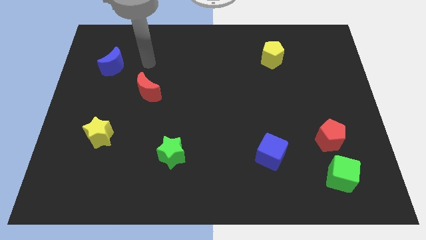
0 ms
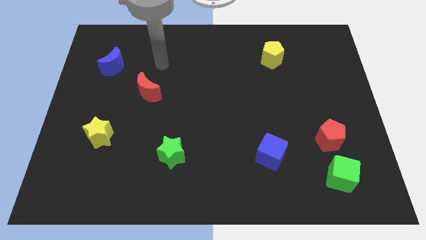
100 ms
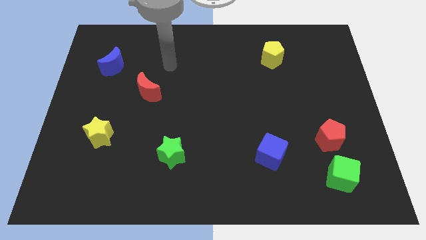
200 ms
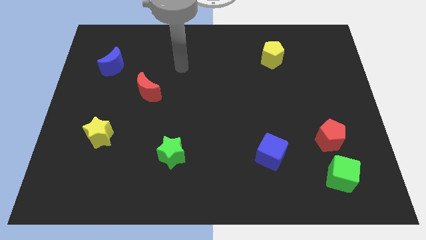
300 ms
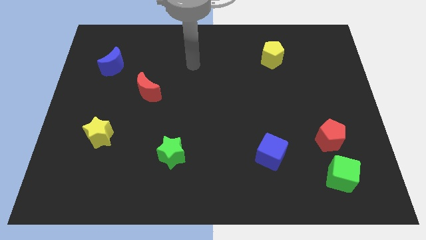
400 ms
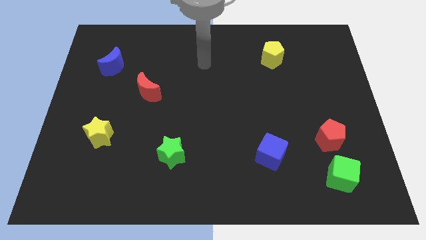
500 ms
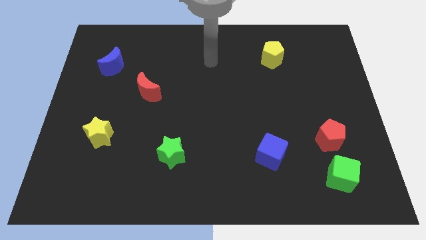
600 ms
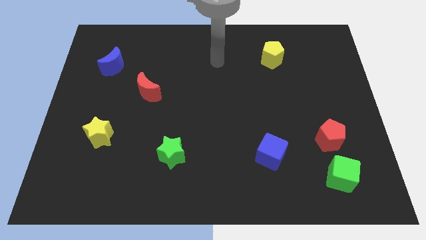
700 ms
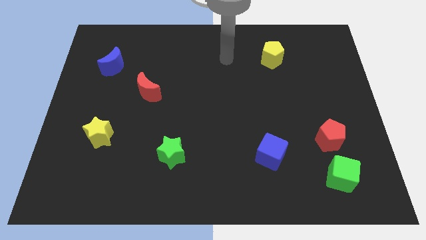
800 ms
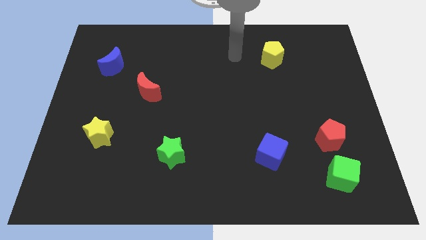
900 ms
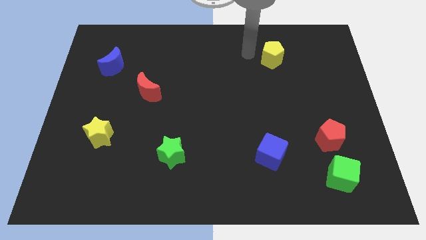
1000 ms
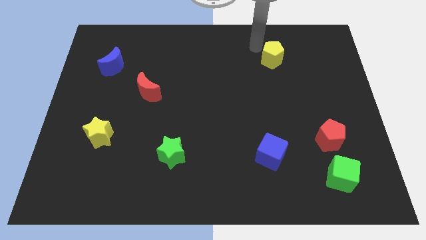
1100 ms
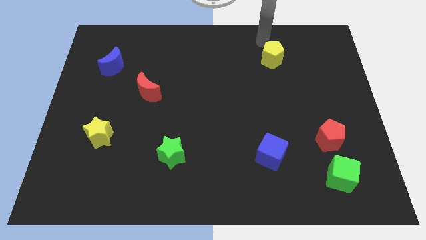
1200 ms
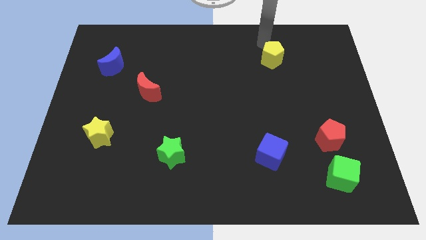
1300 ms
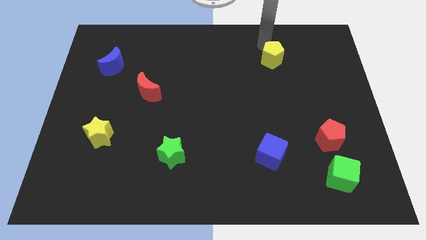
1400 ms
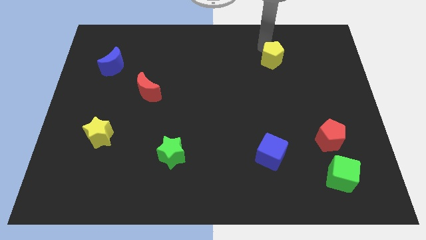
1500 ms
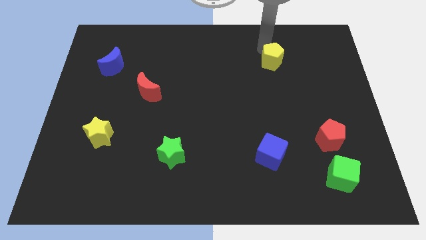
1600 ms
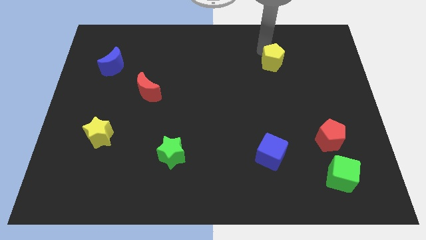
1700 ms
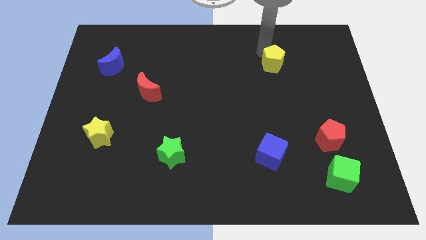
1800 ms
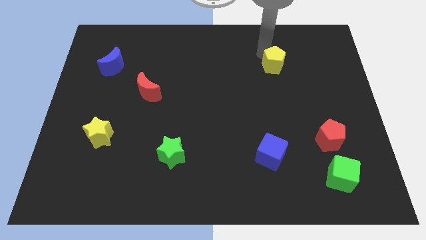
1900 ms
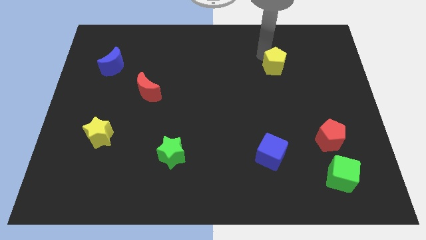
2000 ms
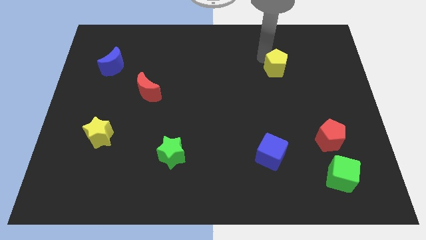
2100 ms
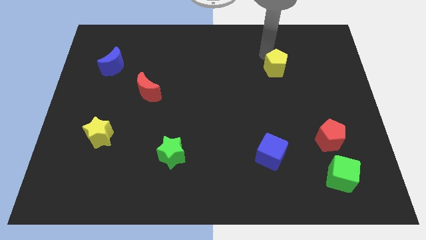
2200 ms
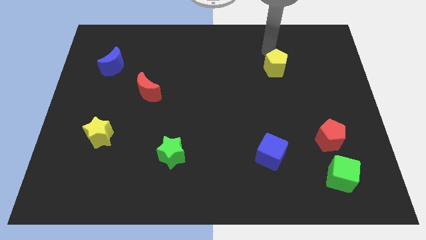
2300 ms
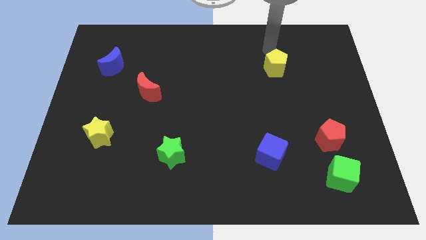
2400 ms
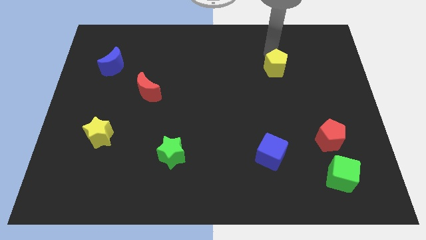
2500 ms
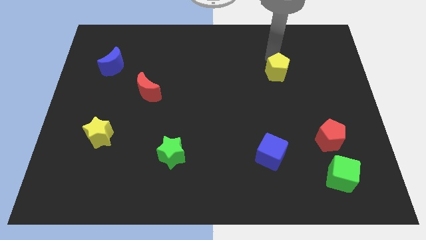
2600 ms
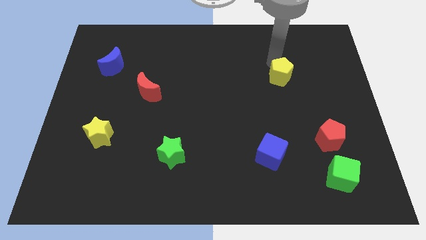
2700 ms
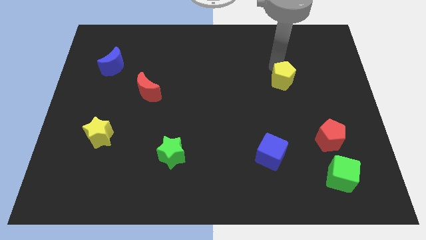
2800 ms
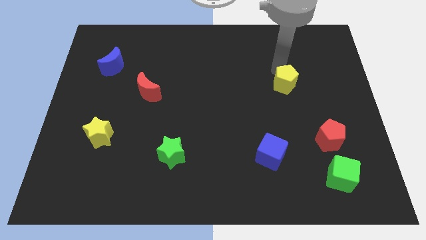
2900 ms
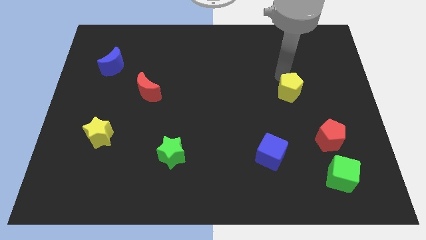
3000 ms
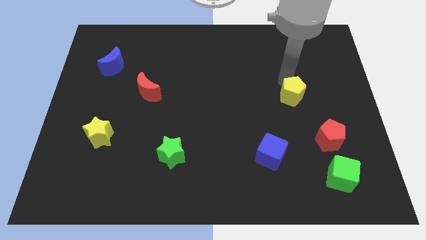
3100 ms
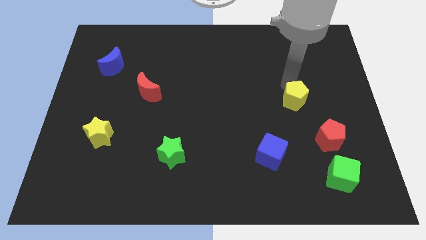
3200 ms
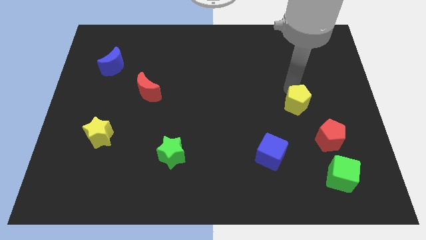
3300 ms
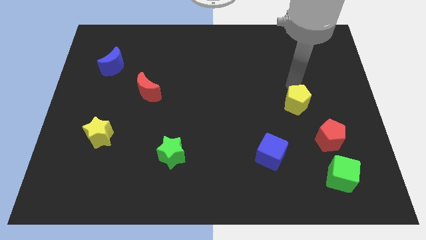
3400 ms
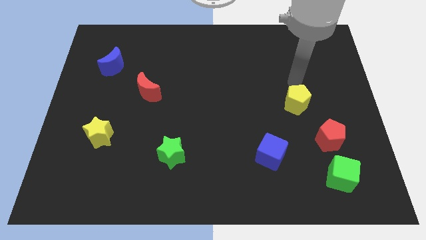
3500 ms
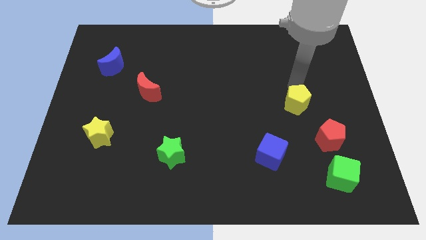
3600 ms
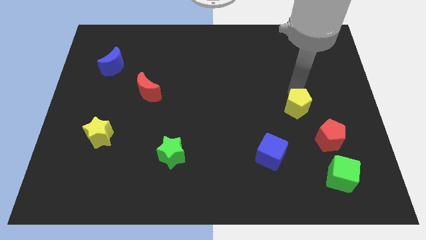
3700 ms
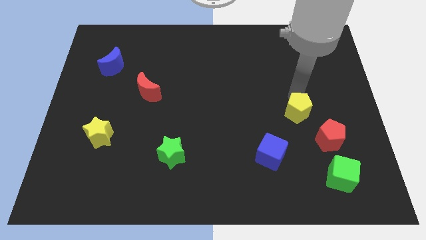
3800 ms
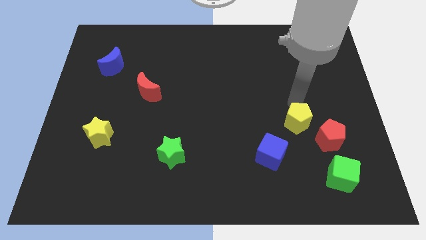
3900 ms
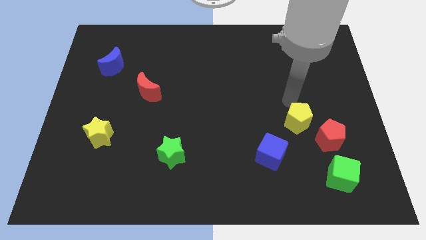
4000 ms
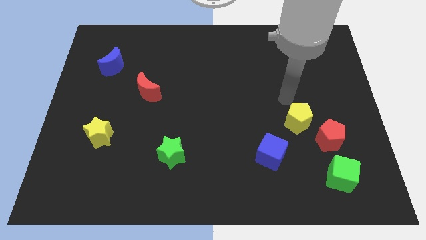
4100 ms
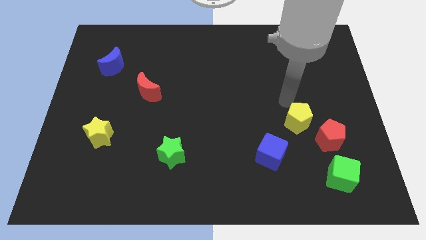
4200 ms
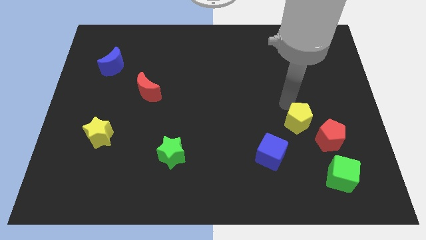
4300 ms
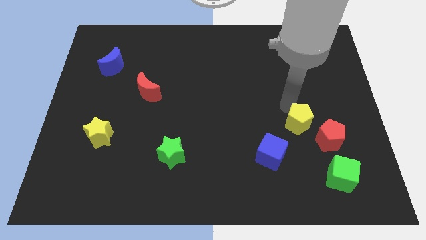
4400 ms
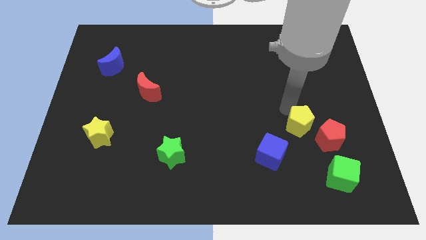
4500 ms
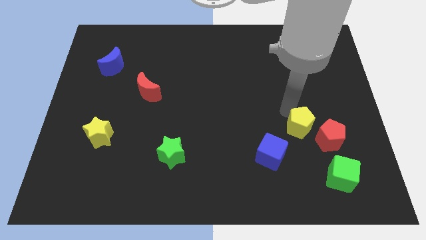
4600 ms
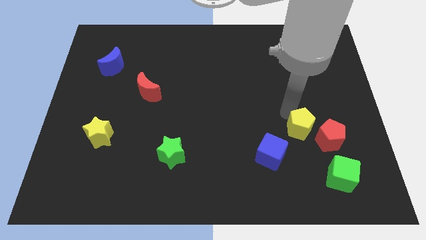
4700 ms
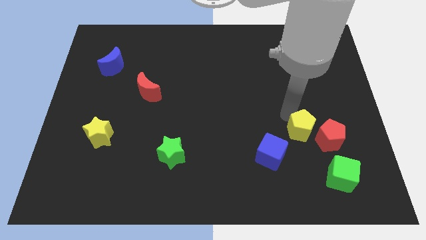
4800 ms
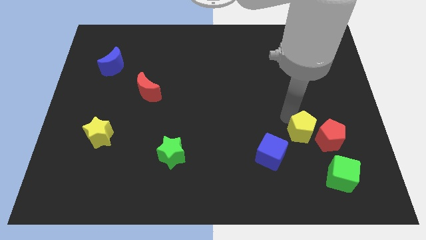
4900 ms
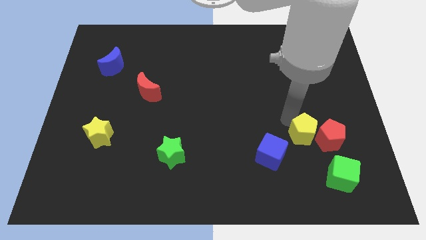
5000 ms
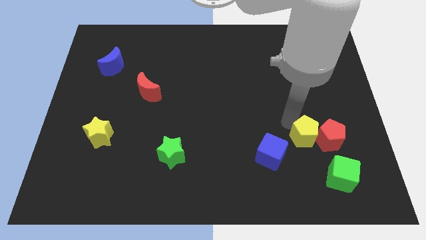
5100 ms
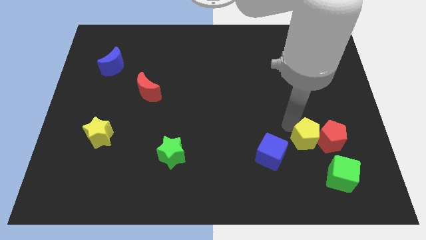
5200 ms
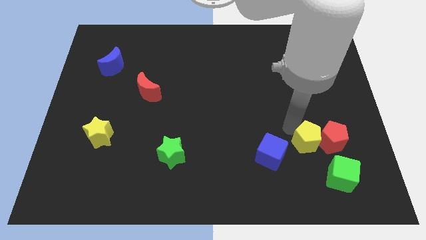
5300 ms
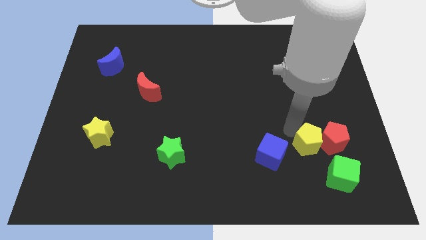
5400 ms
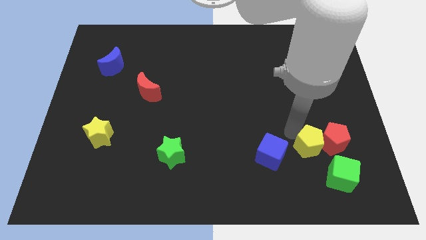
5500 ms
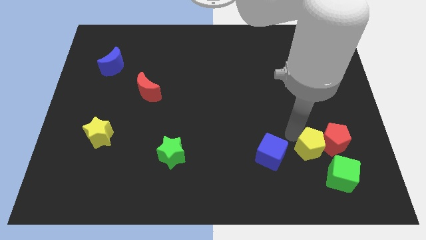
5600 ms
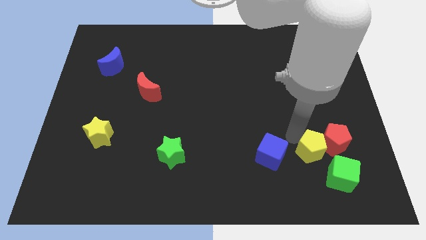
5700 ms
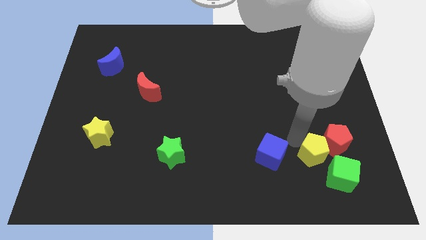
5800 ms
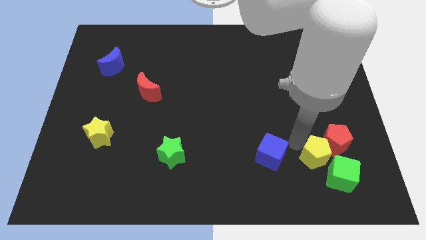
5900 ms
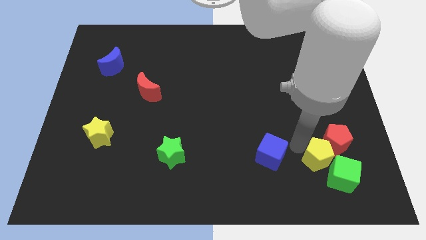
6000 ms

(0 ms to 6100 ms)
slide the yellow pentagon next to the green cube

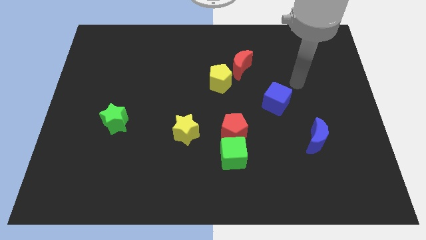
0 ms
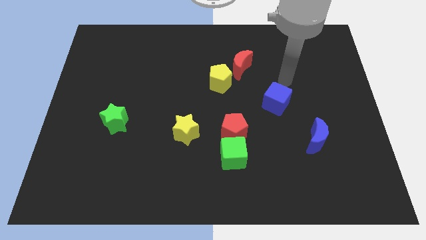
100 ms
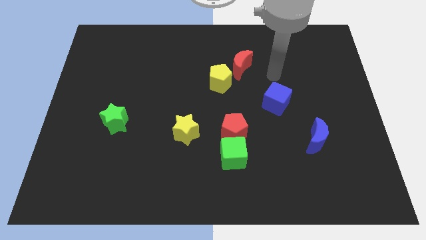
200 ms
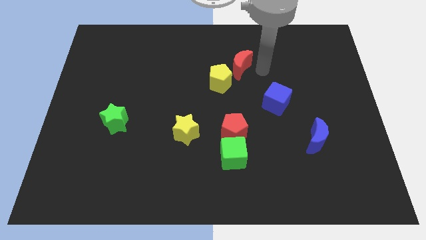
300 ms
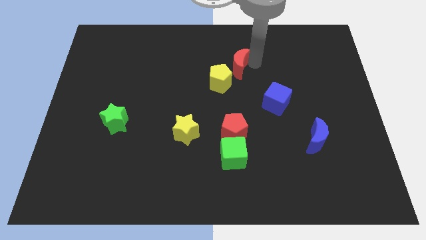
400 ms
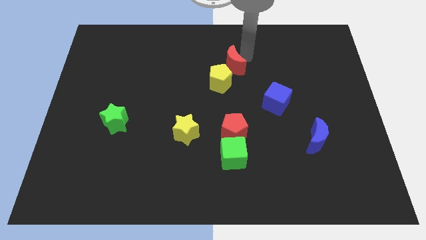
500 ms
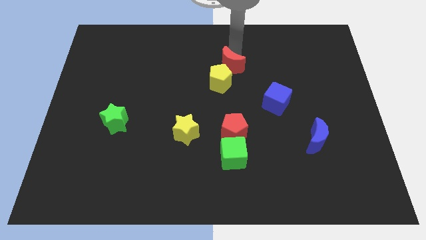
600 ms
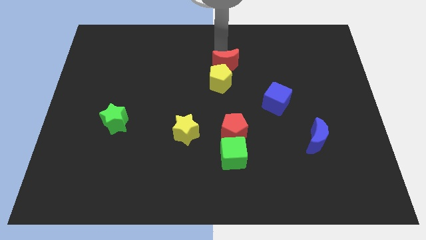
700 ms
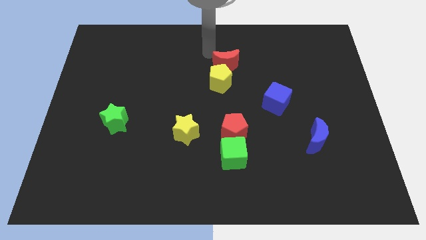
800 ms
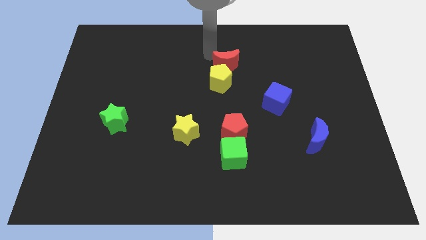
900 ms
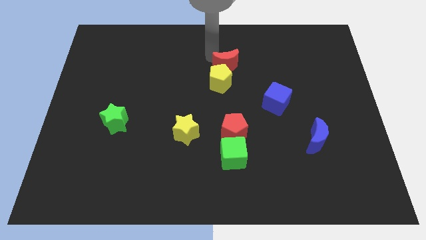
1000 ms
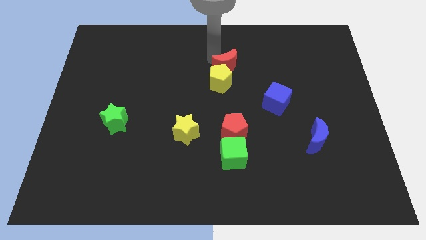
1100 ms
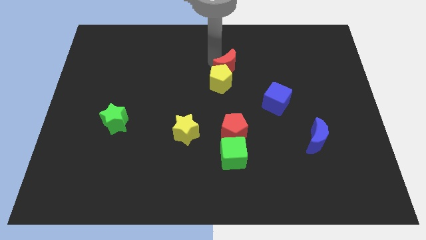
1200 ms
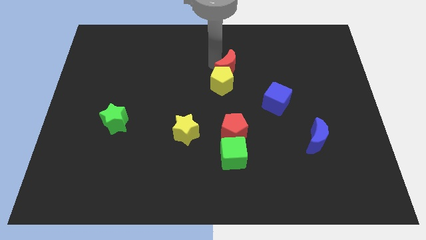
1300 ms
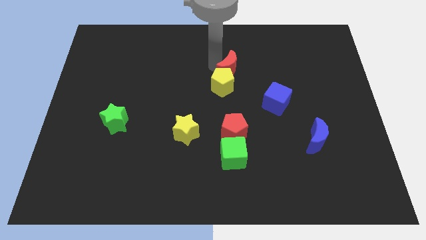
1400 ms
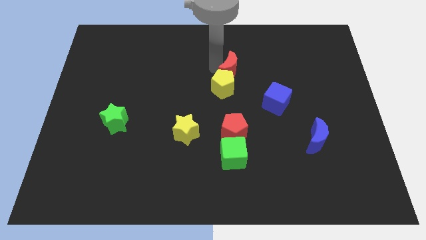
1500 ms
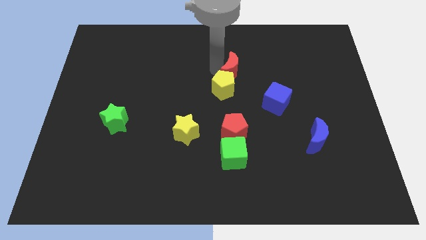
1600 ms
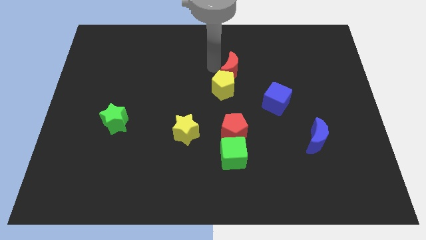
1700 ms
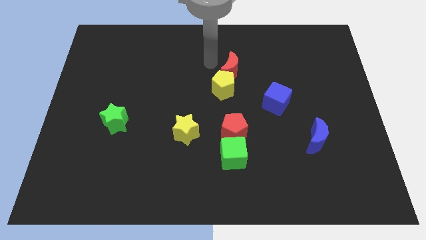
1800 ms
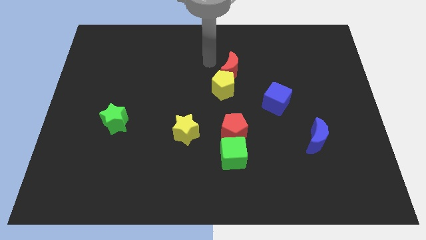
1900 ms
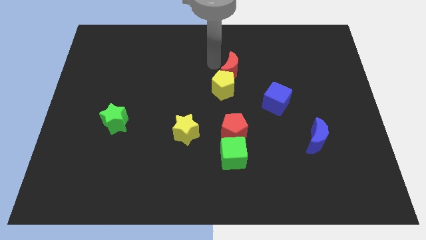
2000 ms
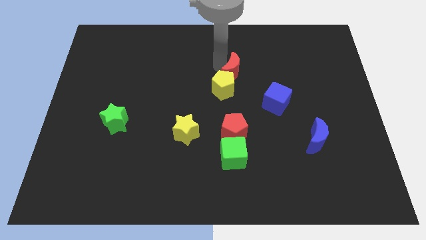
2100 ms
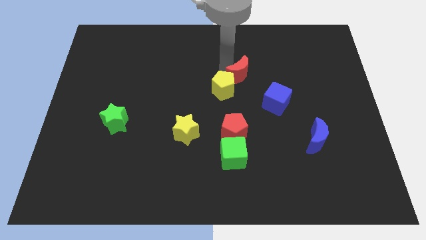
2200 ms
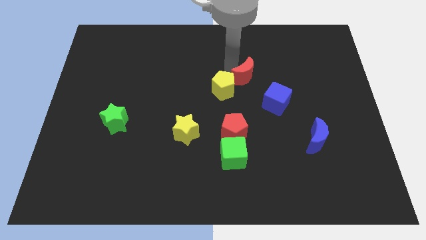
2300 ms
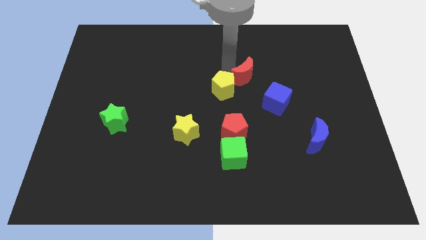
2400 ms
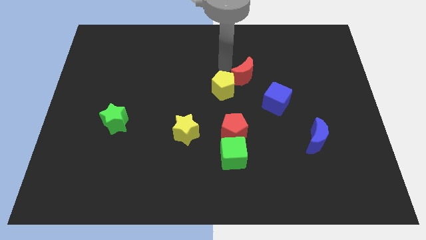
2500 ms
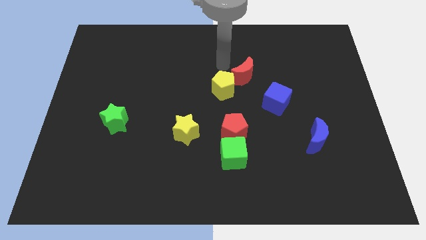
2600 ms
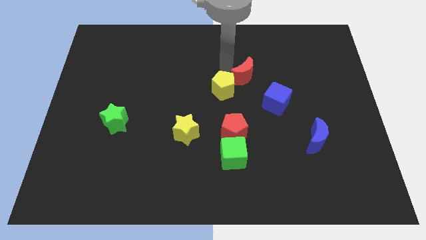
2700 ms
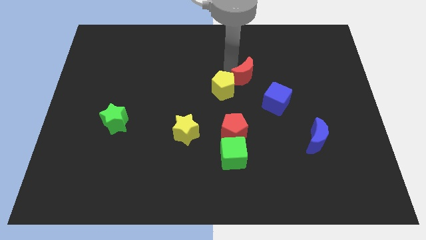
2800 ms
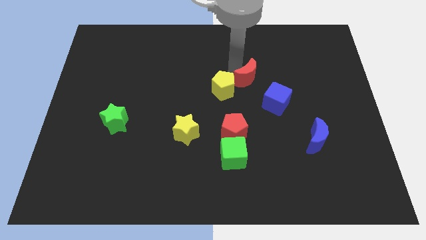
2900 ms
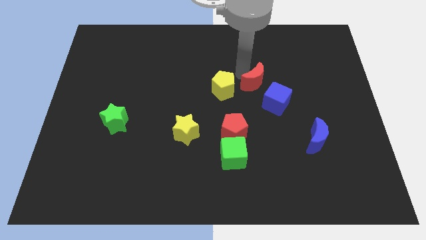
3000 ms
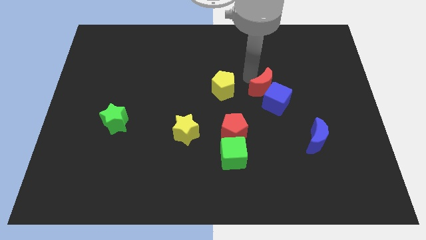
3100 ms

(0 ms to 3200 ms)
push the red moon close to the blue cube
